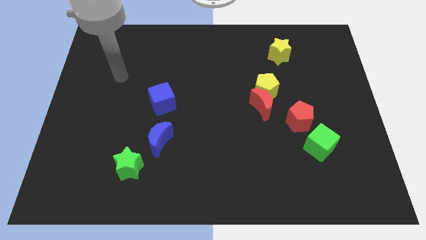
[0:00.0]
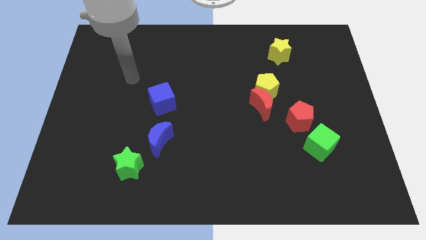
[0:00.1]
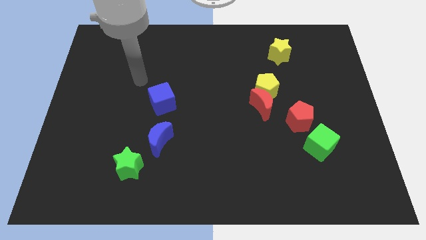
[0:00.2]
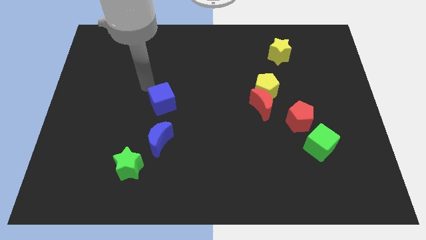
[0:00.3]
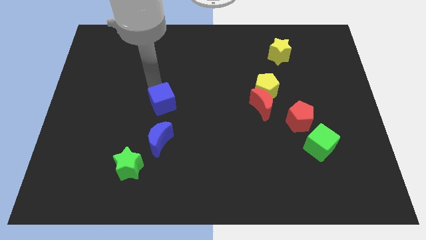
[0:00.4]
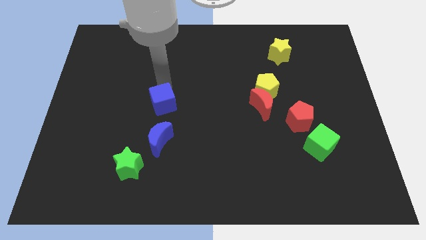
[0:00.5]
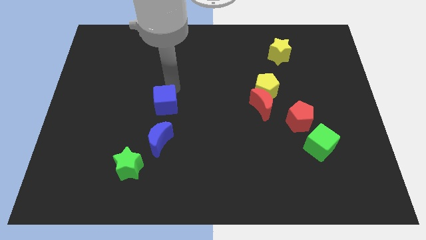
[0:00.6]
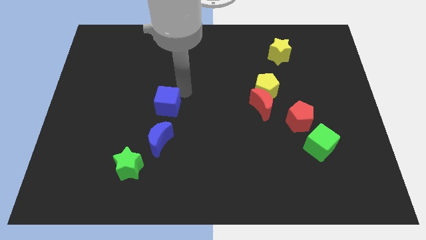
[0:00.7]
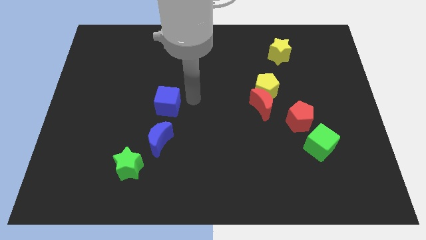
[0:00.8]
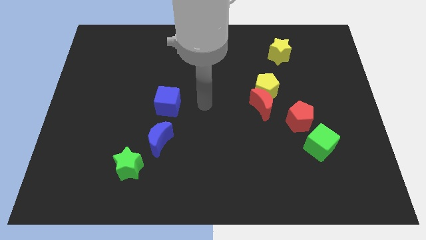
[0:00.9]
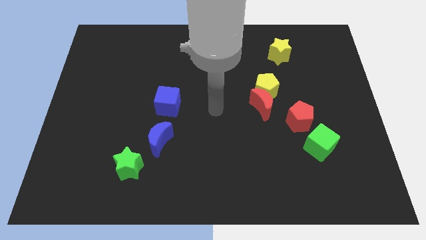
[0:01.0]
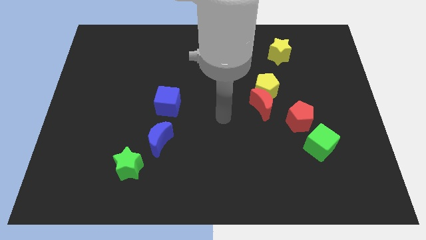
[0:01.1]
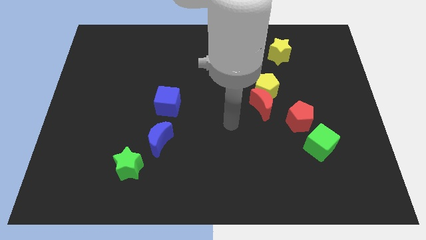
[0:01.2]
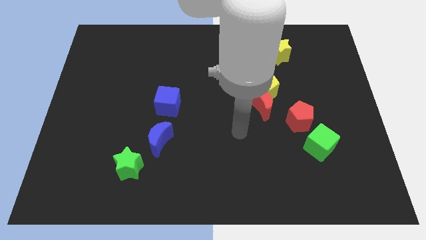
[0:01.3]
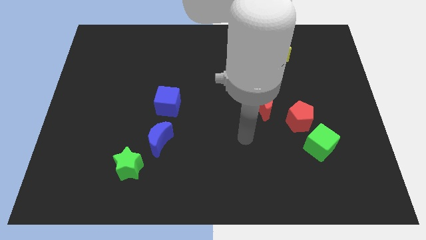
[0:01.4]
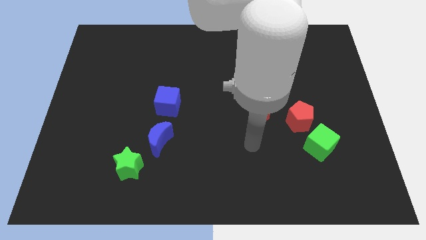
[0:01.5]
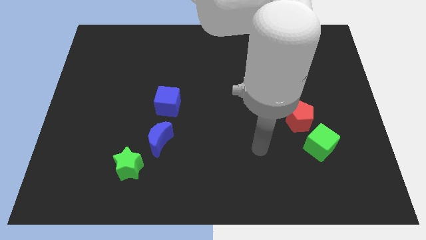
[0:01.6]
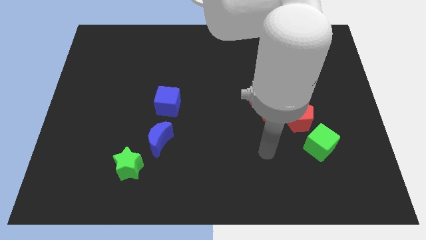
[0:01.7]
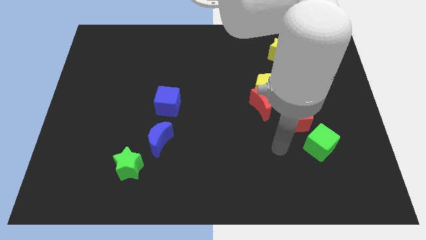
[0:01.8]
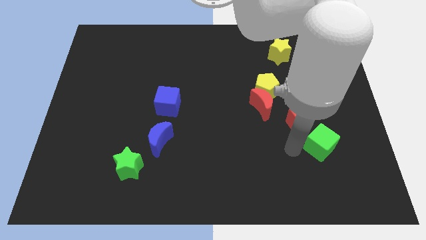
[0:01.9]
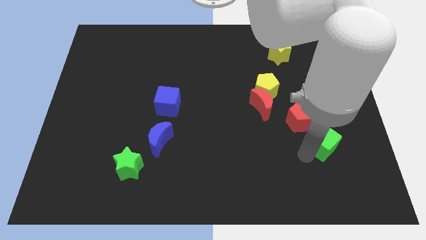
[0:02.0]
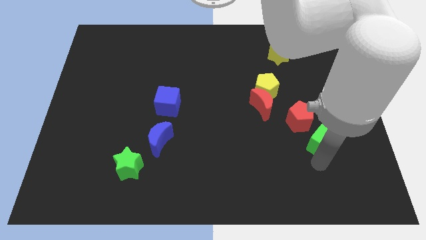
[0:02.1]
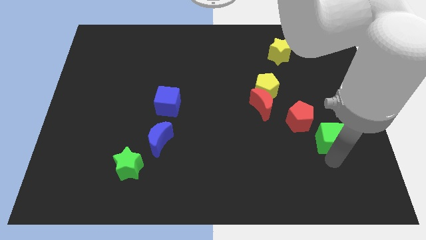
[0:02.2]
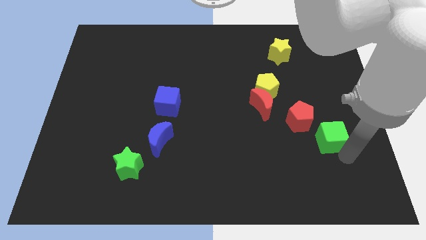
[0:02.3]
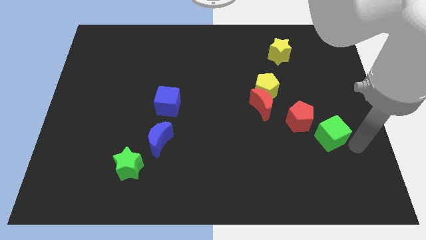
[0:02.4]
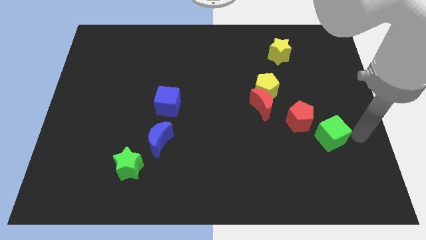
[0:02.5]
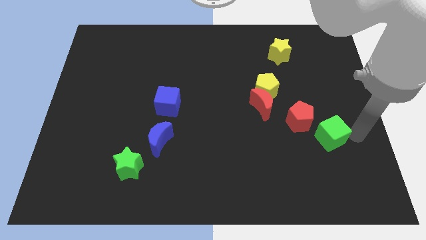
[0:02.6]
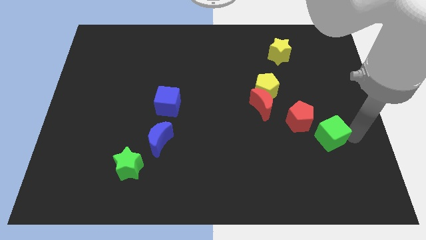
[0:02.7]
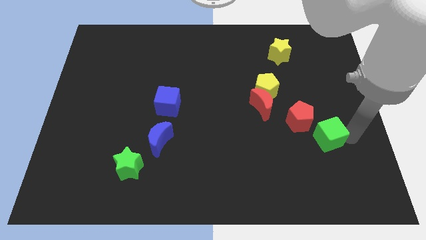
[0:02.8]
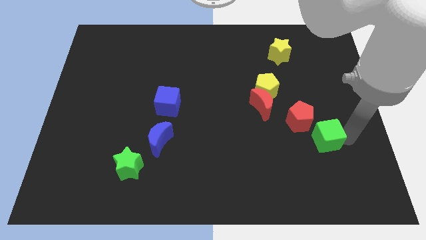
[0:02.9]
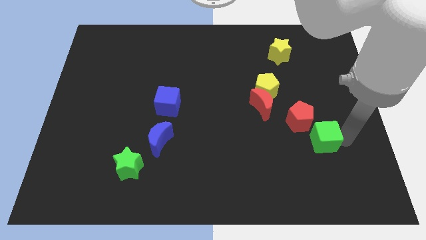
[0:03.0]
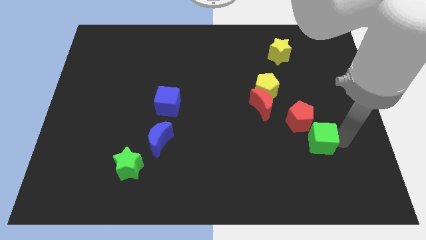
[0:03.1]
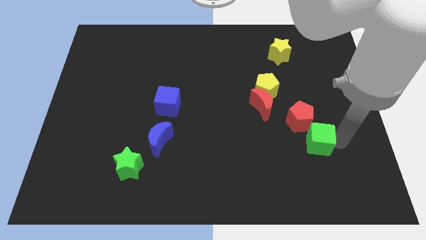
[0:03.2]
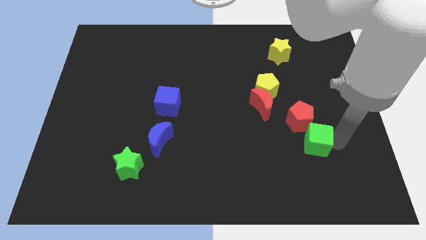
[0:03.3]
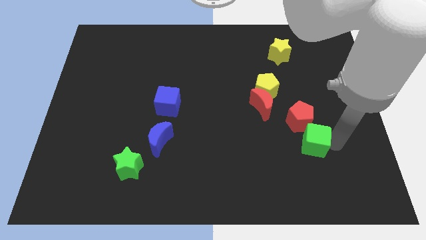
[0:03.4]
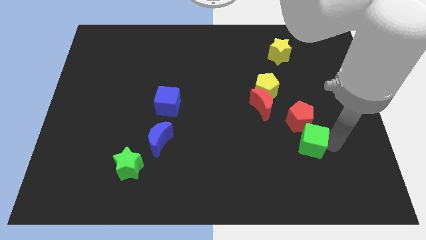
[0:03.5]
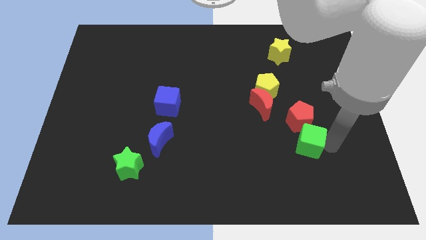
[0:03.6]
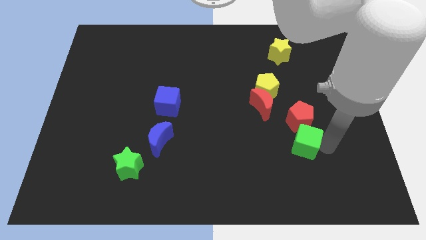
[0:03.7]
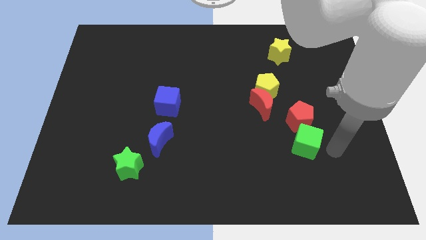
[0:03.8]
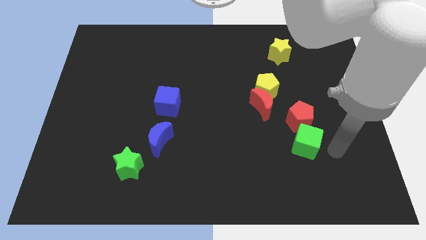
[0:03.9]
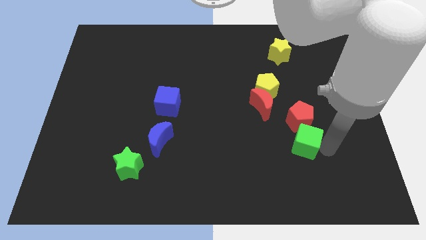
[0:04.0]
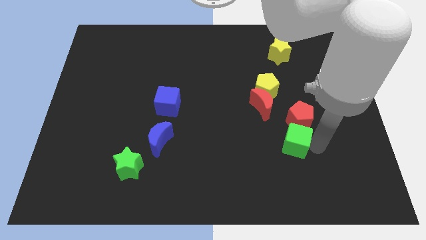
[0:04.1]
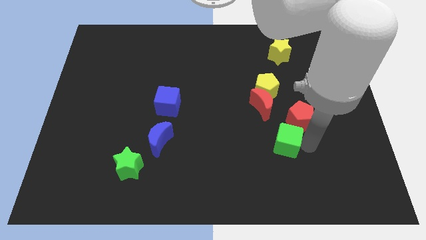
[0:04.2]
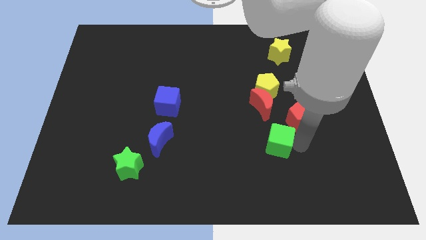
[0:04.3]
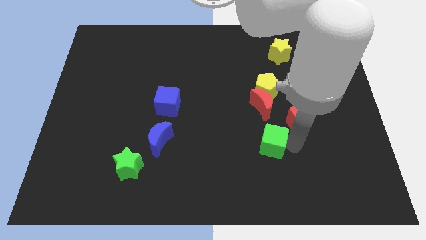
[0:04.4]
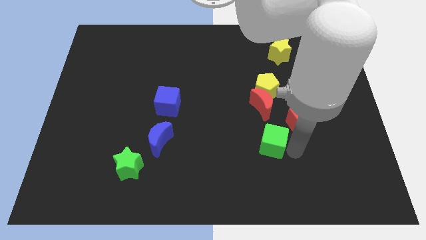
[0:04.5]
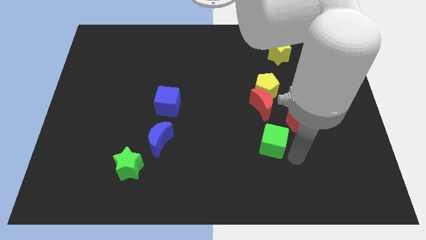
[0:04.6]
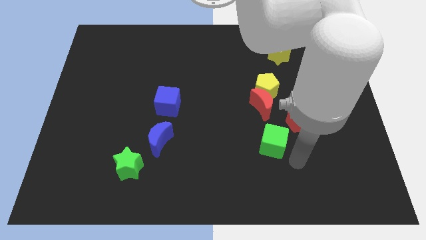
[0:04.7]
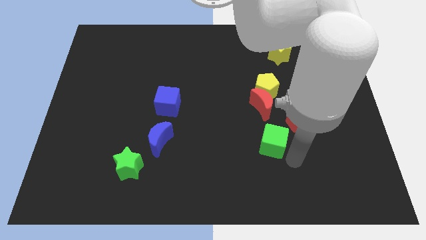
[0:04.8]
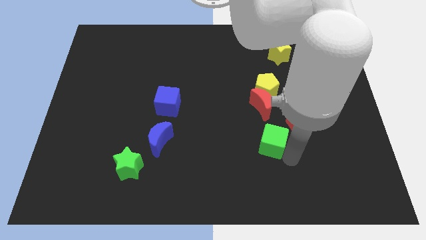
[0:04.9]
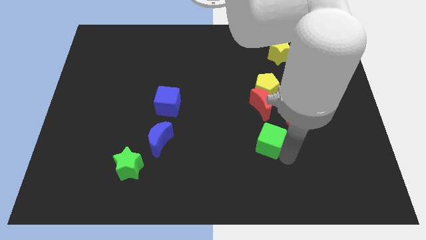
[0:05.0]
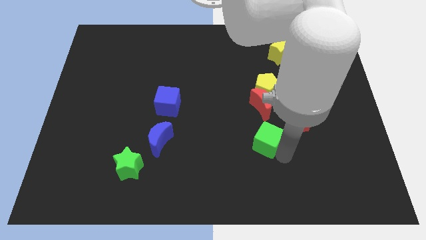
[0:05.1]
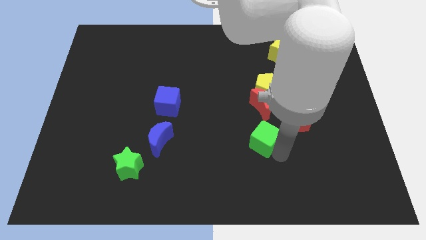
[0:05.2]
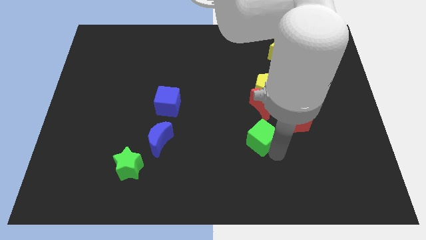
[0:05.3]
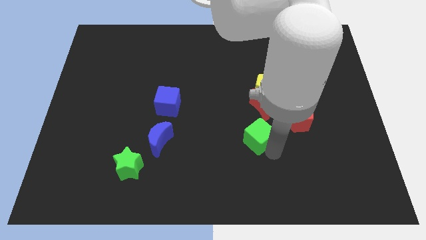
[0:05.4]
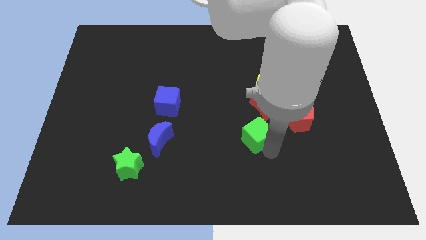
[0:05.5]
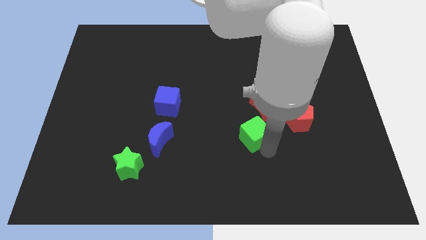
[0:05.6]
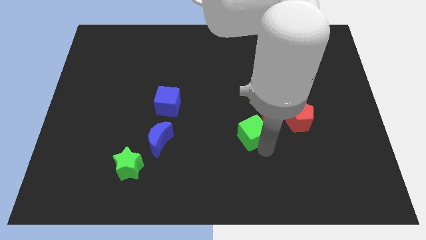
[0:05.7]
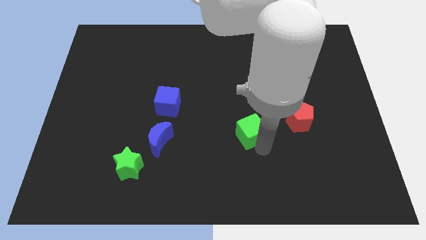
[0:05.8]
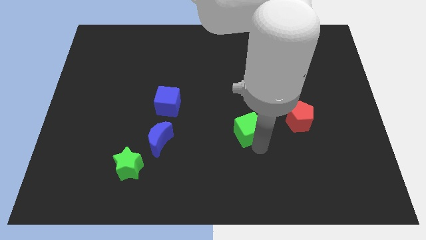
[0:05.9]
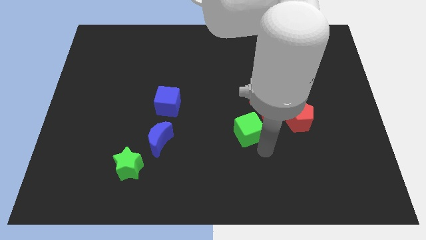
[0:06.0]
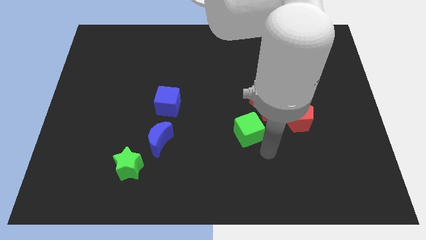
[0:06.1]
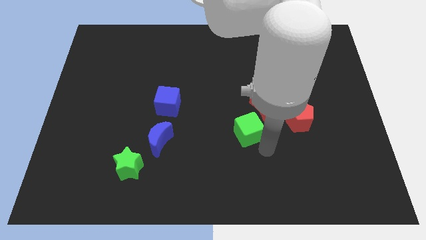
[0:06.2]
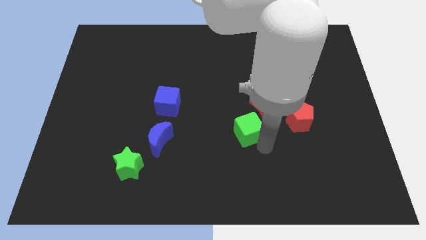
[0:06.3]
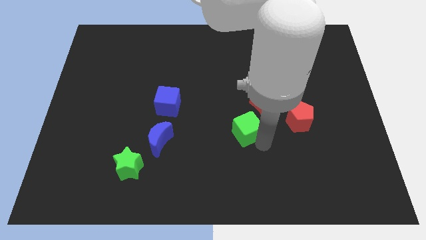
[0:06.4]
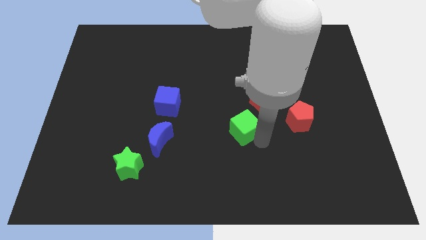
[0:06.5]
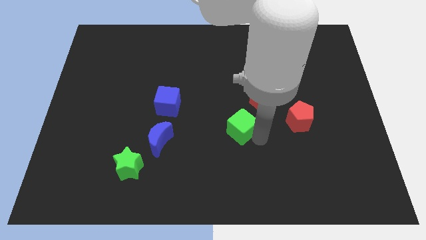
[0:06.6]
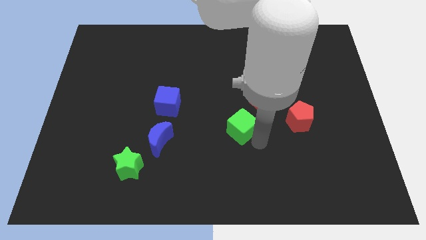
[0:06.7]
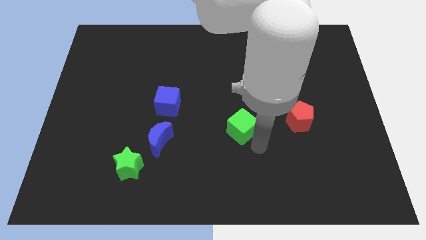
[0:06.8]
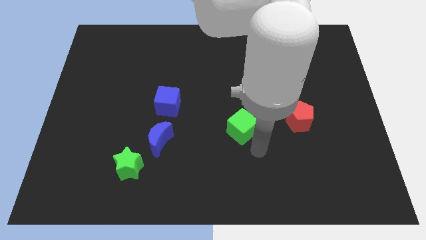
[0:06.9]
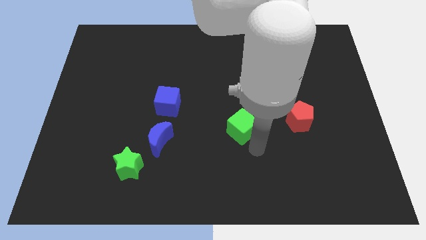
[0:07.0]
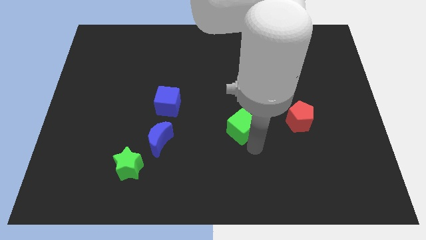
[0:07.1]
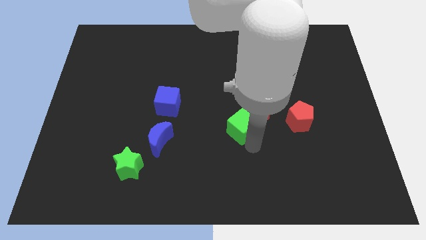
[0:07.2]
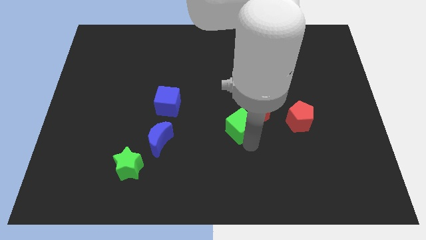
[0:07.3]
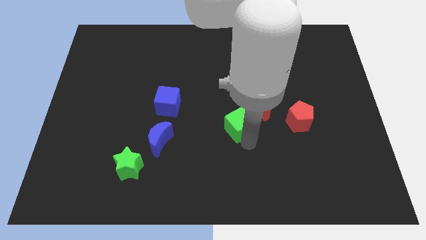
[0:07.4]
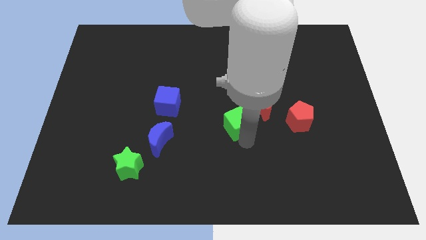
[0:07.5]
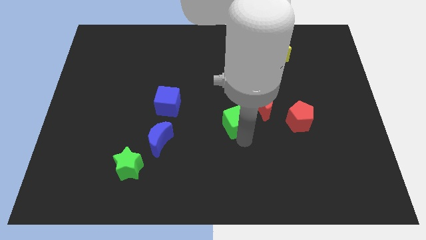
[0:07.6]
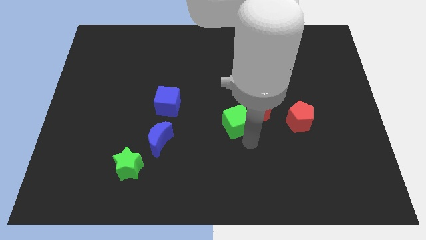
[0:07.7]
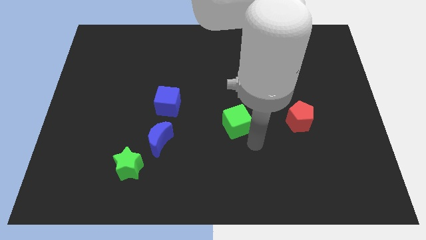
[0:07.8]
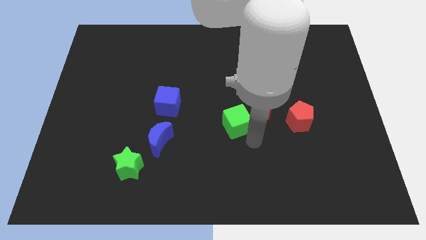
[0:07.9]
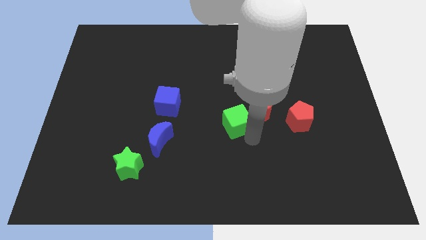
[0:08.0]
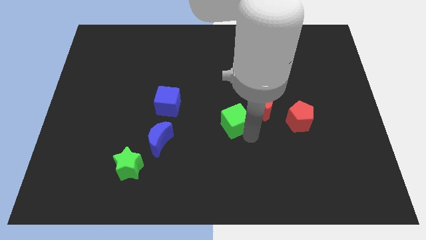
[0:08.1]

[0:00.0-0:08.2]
put the green cube to the left of the red moon
